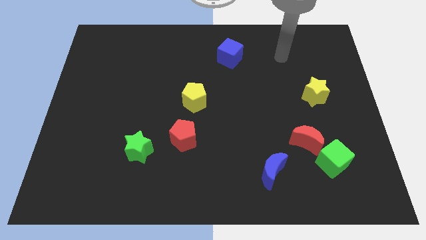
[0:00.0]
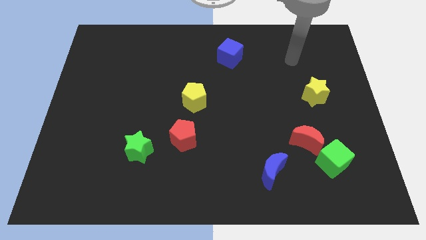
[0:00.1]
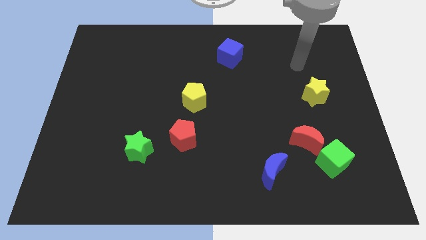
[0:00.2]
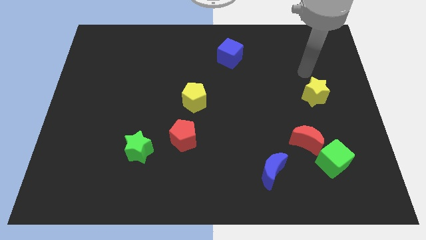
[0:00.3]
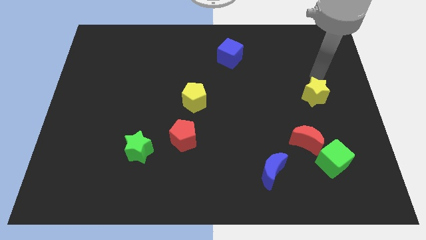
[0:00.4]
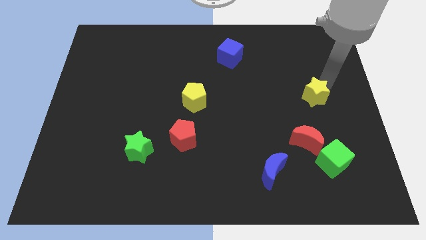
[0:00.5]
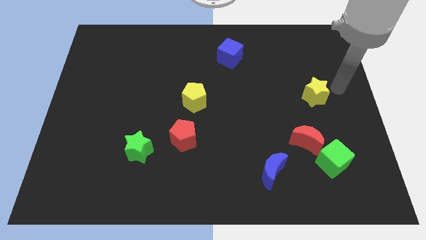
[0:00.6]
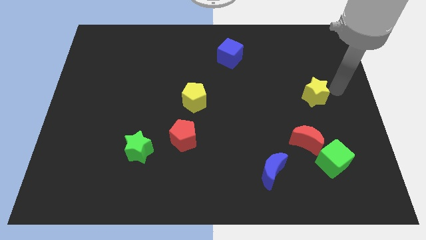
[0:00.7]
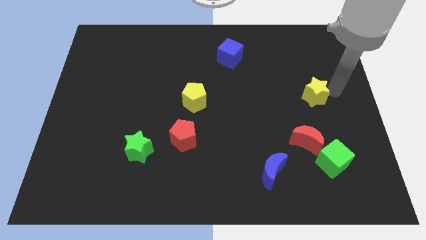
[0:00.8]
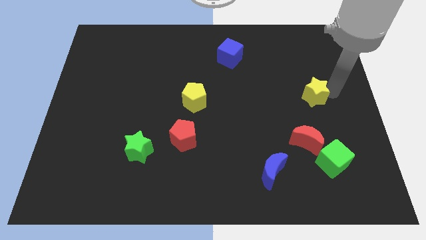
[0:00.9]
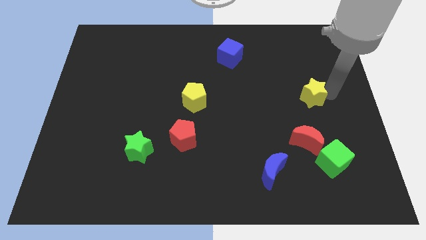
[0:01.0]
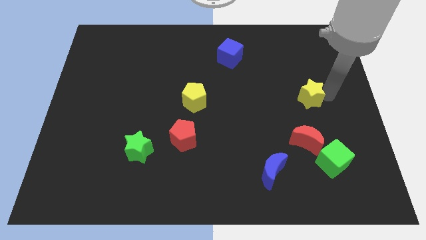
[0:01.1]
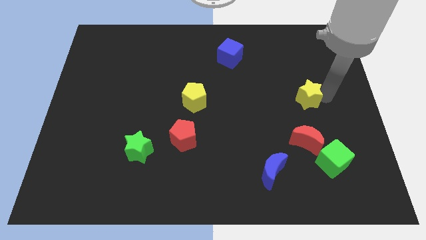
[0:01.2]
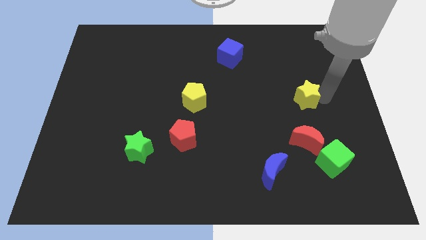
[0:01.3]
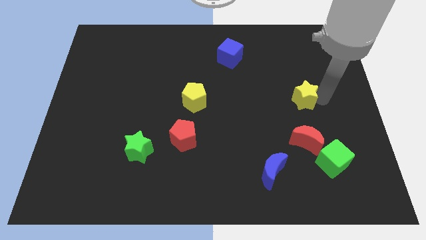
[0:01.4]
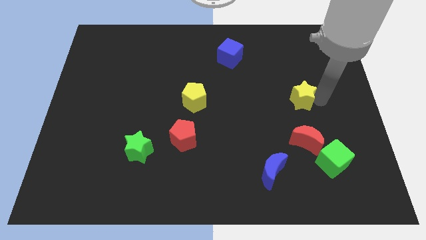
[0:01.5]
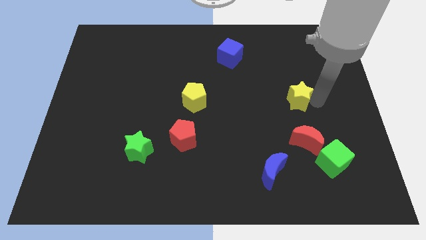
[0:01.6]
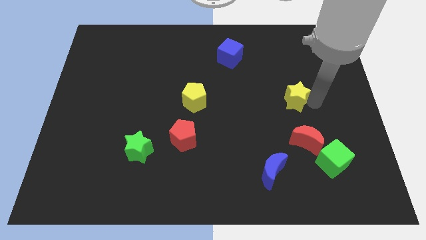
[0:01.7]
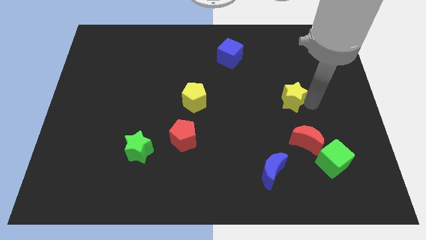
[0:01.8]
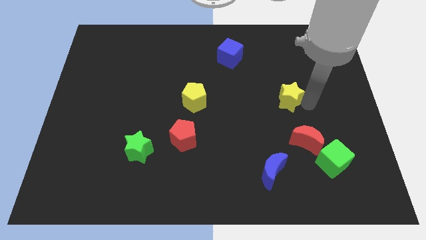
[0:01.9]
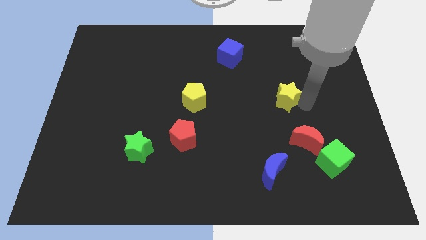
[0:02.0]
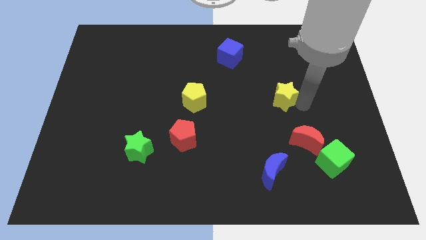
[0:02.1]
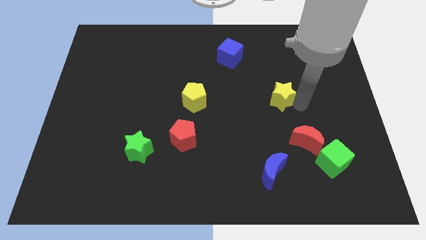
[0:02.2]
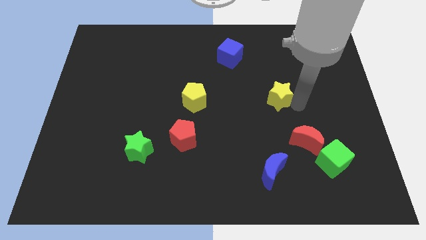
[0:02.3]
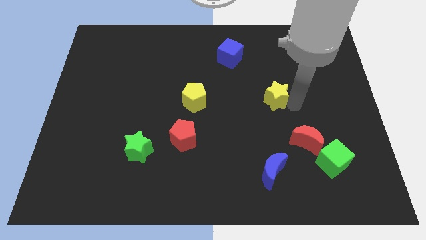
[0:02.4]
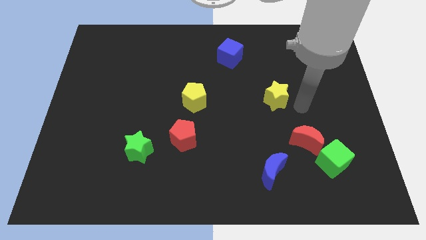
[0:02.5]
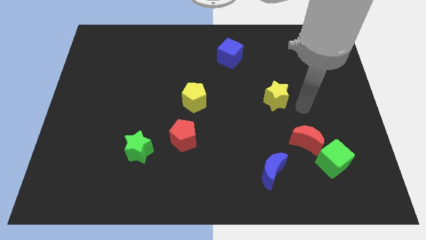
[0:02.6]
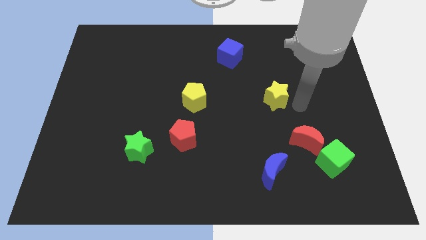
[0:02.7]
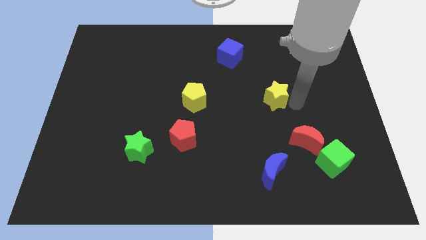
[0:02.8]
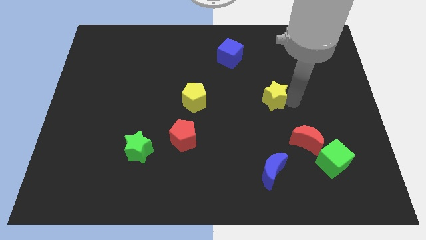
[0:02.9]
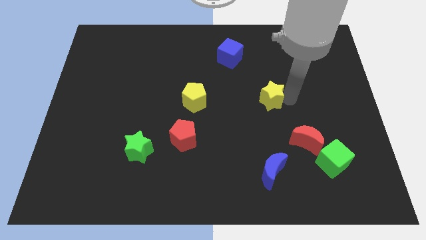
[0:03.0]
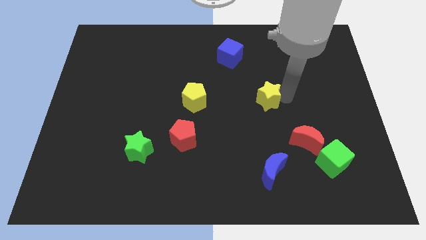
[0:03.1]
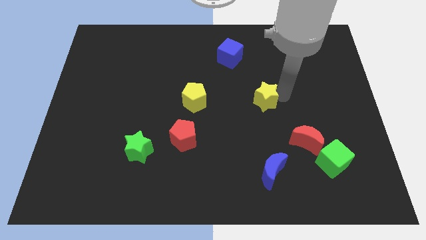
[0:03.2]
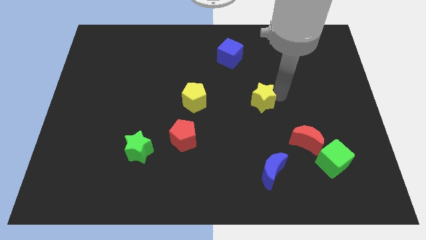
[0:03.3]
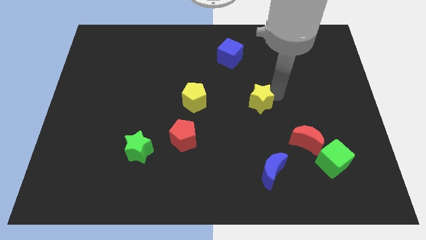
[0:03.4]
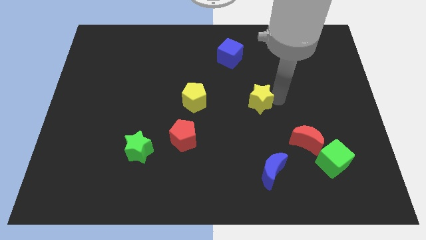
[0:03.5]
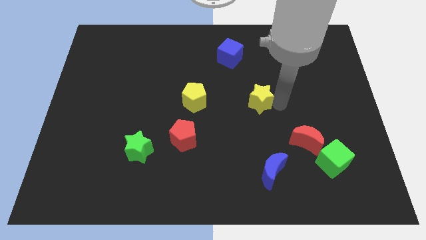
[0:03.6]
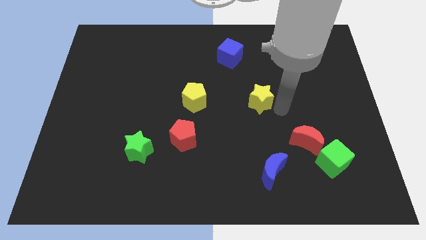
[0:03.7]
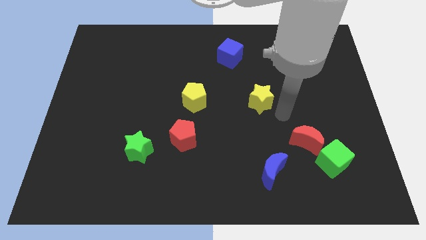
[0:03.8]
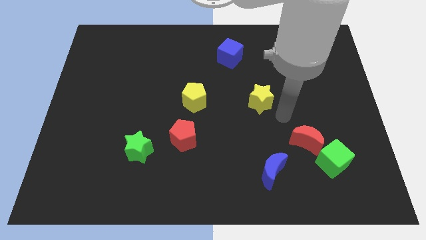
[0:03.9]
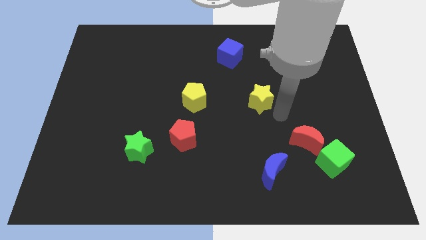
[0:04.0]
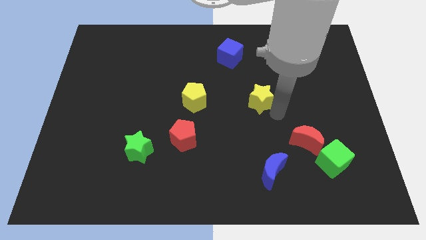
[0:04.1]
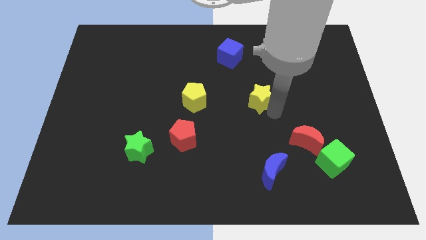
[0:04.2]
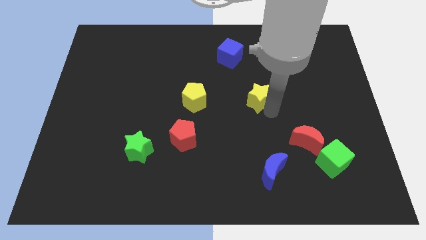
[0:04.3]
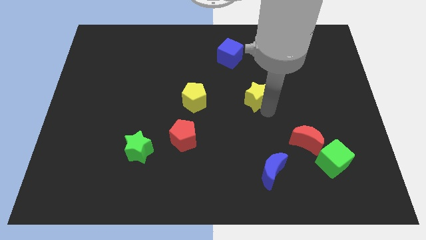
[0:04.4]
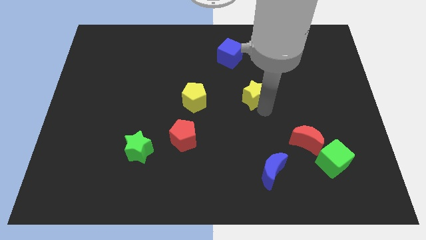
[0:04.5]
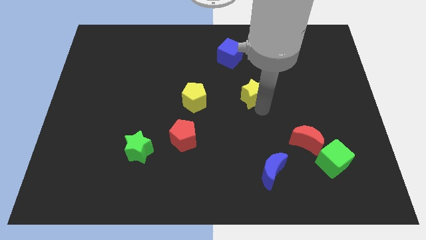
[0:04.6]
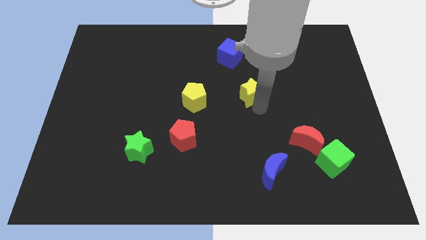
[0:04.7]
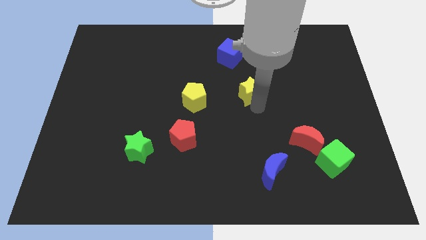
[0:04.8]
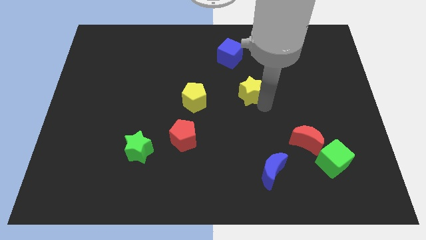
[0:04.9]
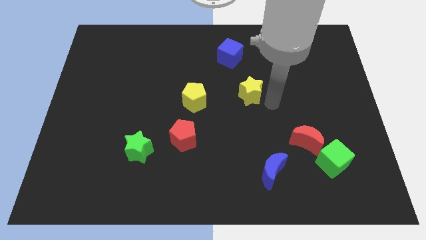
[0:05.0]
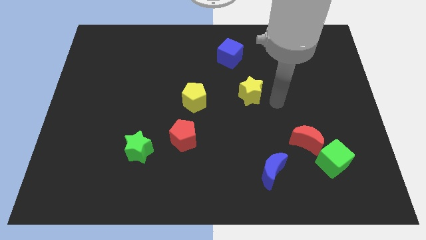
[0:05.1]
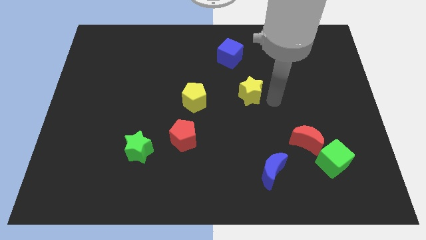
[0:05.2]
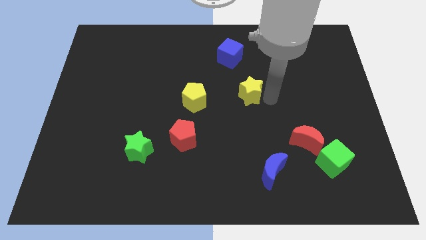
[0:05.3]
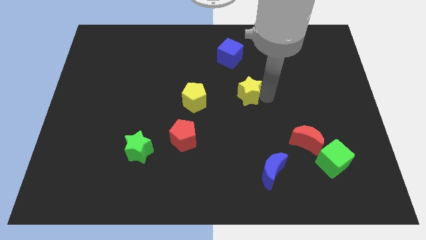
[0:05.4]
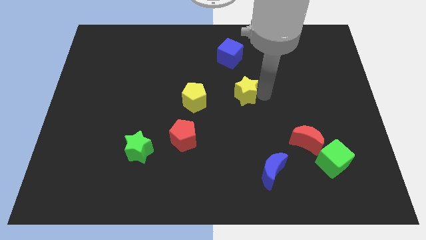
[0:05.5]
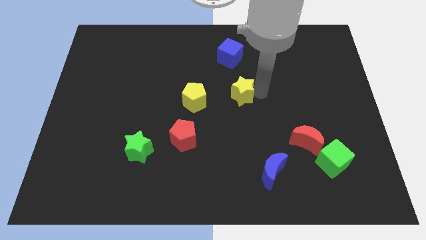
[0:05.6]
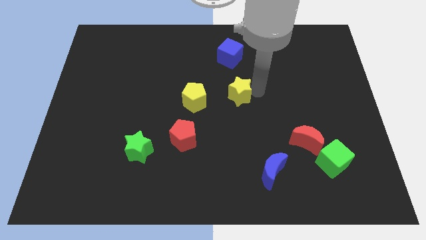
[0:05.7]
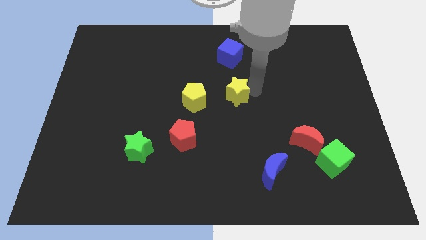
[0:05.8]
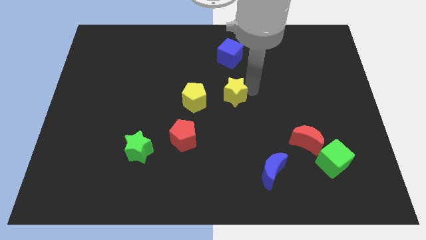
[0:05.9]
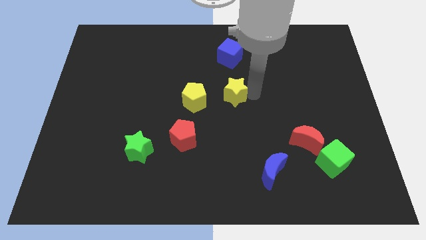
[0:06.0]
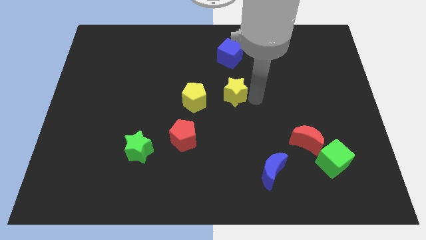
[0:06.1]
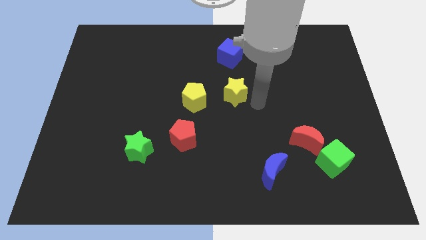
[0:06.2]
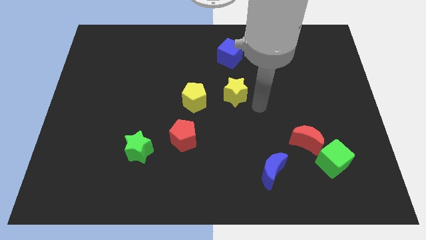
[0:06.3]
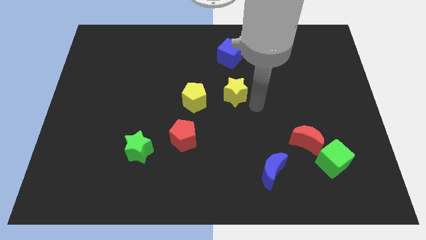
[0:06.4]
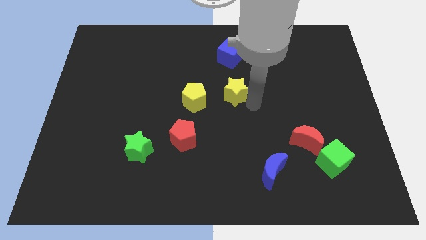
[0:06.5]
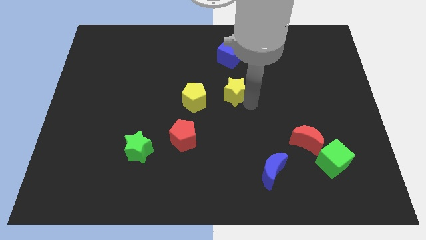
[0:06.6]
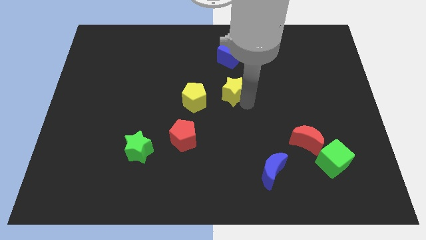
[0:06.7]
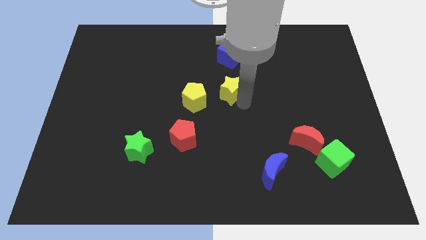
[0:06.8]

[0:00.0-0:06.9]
push the yellow star to the top right of the yellow pentagon
